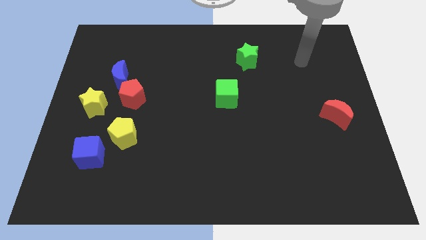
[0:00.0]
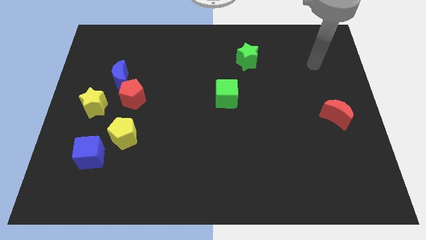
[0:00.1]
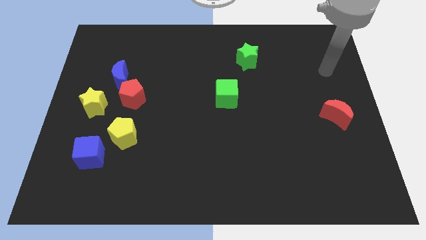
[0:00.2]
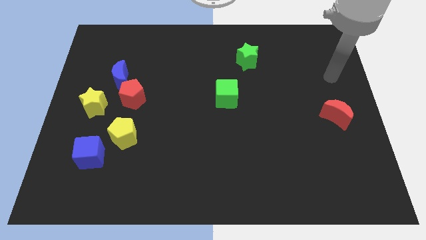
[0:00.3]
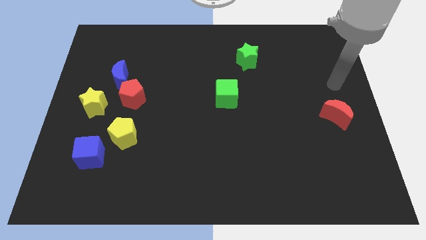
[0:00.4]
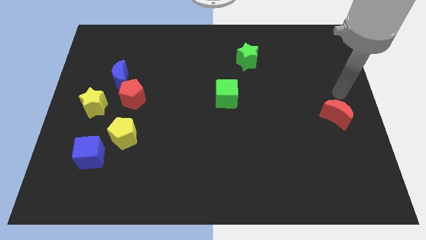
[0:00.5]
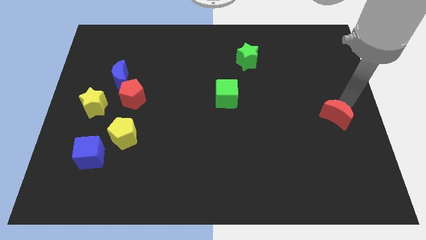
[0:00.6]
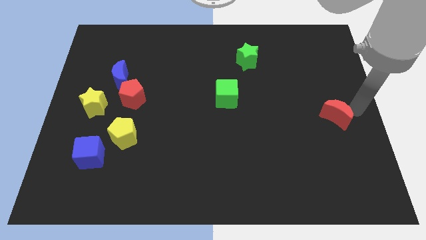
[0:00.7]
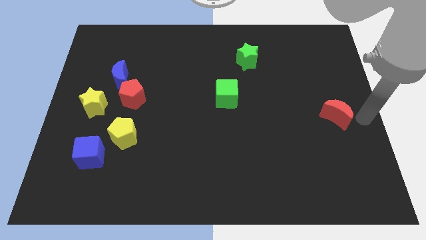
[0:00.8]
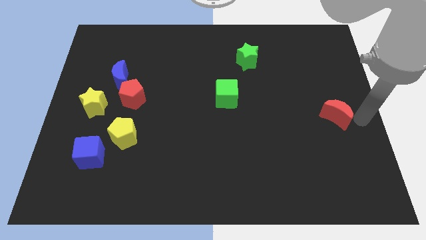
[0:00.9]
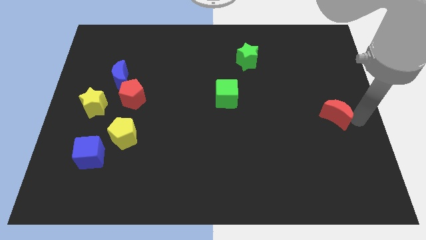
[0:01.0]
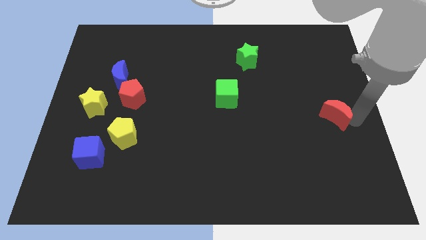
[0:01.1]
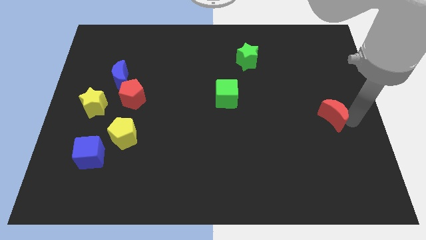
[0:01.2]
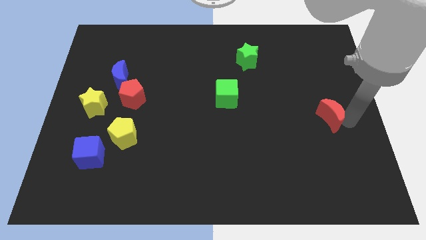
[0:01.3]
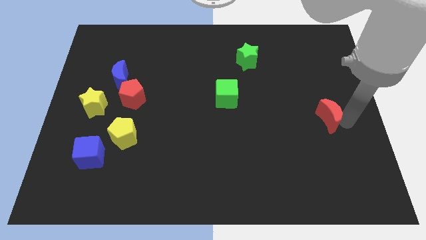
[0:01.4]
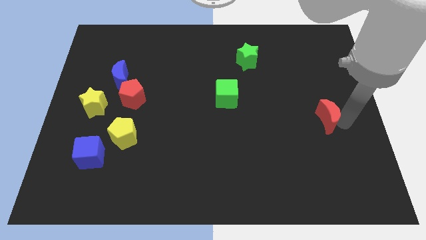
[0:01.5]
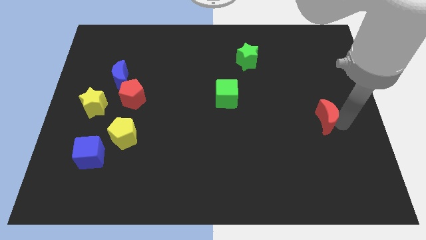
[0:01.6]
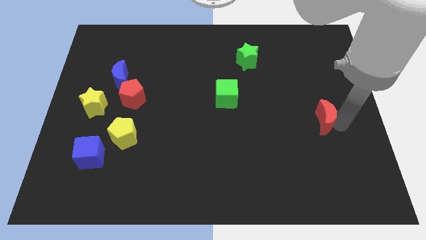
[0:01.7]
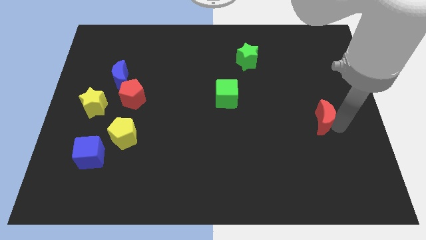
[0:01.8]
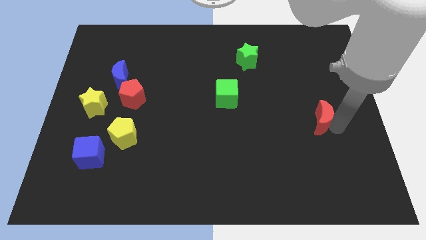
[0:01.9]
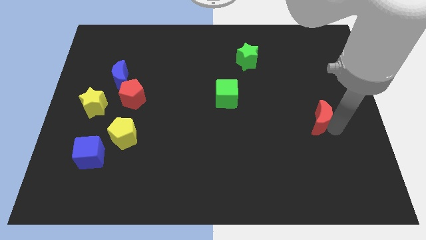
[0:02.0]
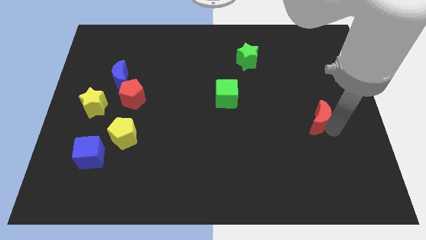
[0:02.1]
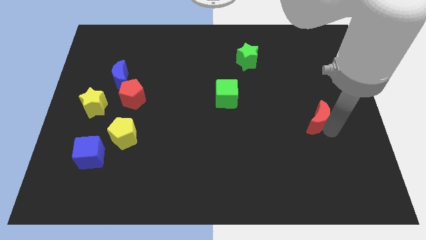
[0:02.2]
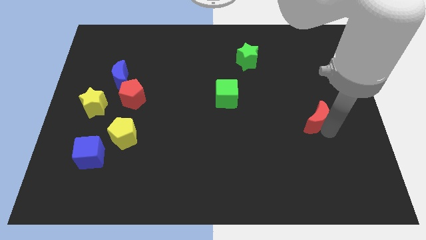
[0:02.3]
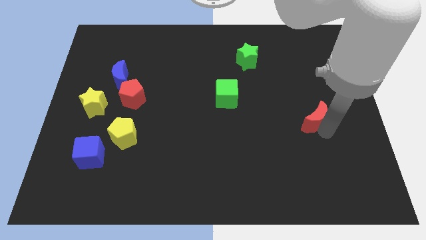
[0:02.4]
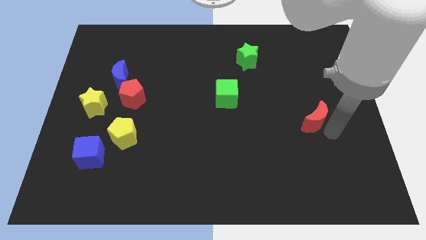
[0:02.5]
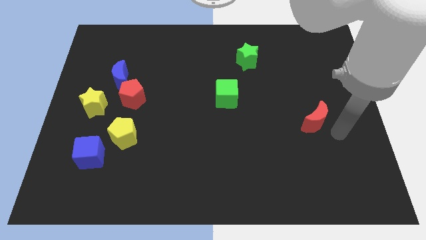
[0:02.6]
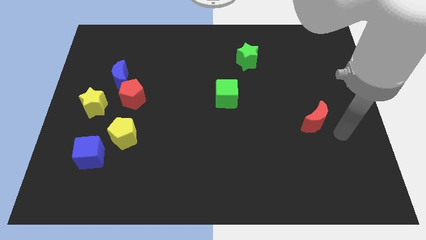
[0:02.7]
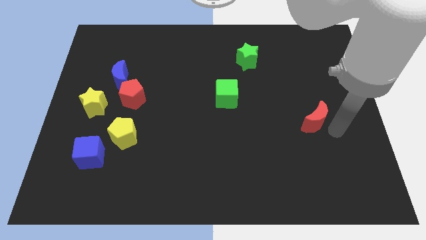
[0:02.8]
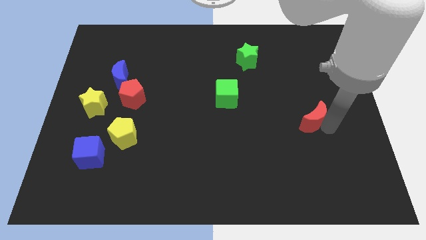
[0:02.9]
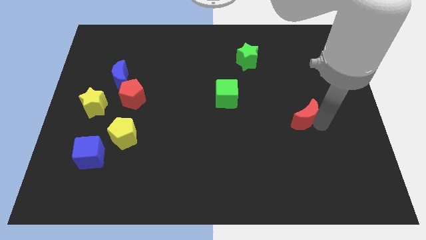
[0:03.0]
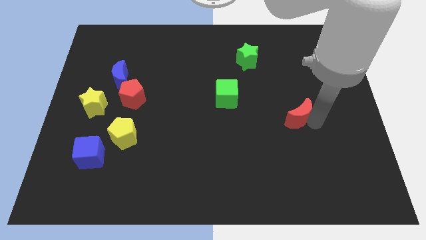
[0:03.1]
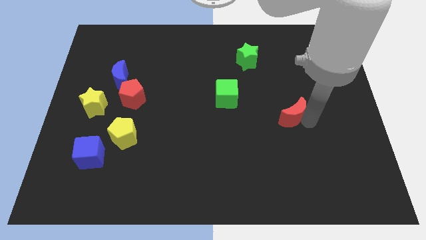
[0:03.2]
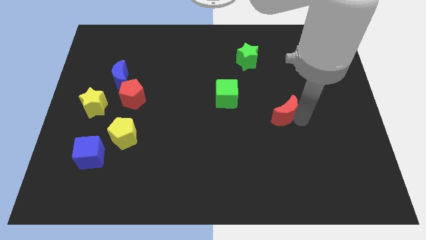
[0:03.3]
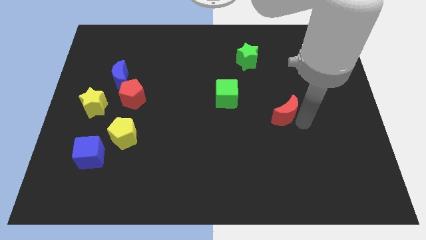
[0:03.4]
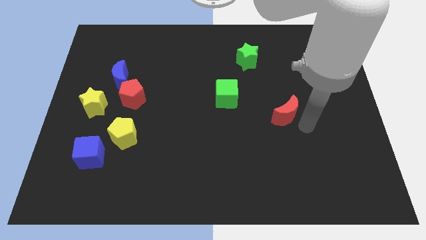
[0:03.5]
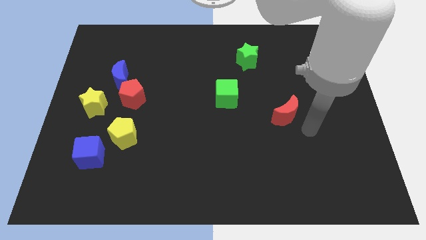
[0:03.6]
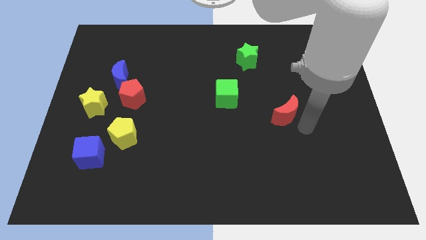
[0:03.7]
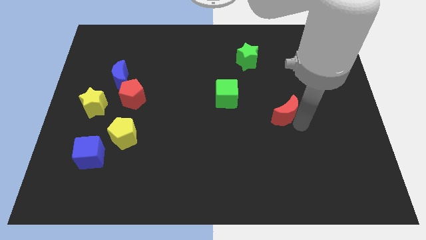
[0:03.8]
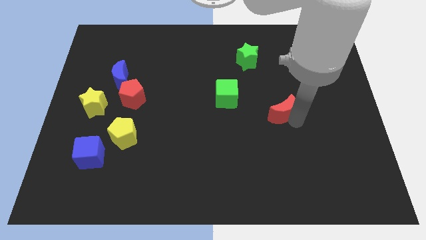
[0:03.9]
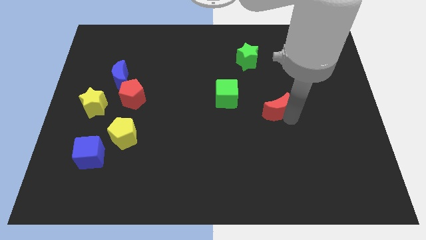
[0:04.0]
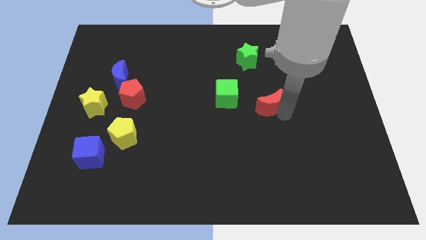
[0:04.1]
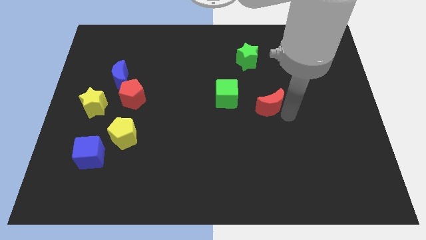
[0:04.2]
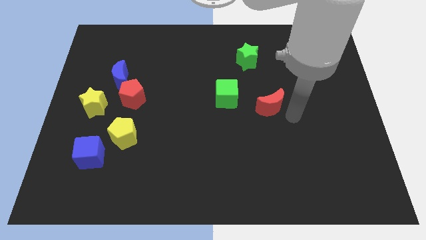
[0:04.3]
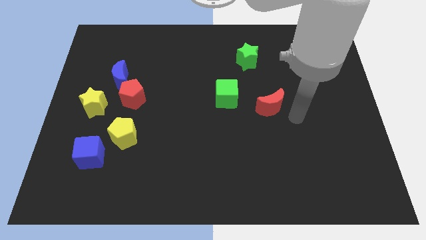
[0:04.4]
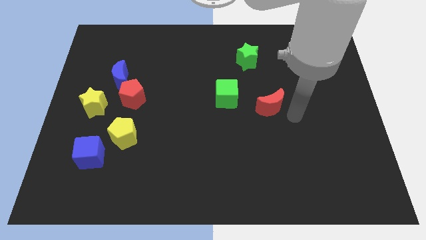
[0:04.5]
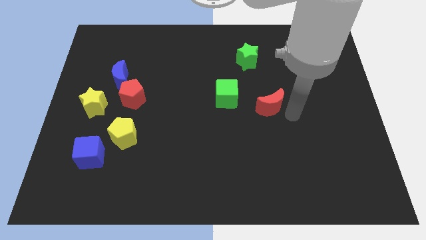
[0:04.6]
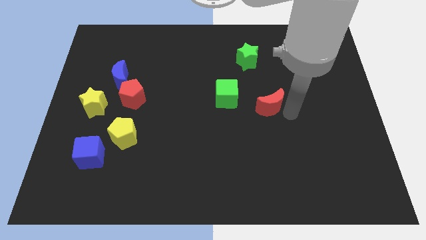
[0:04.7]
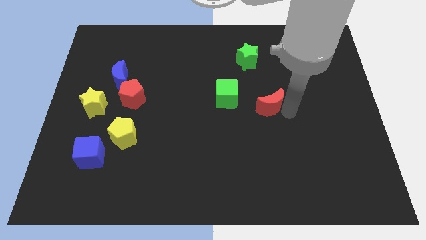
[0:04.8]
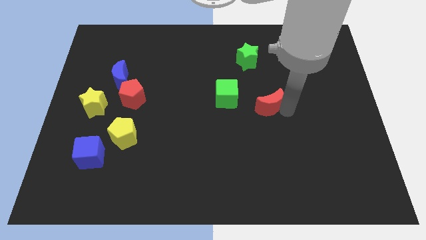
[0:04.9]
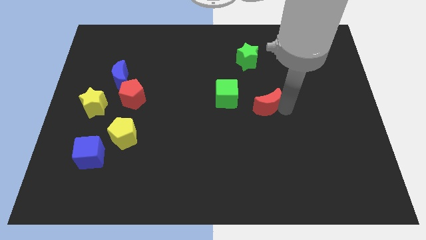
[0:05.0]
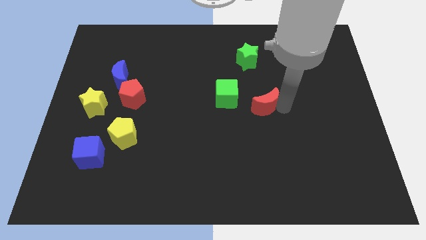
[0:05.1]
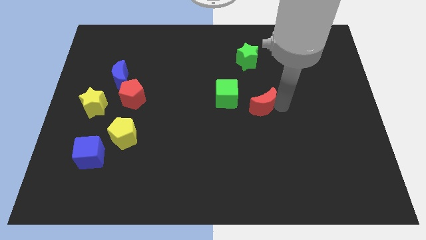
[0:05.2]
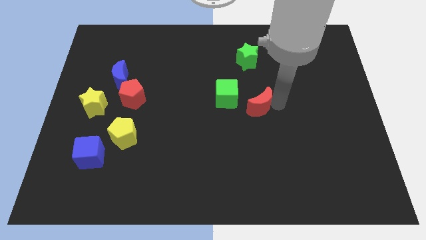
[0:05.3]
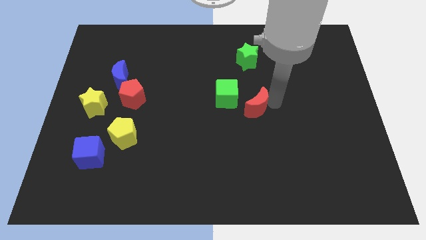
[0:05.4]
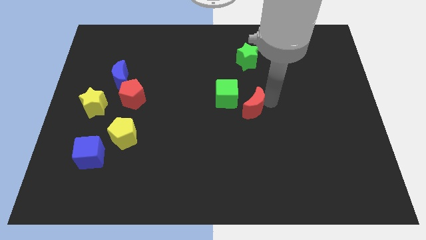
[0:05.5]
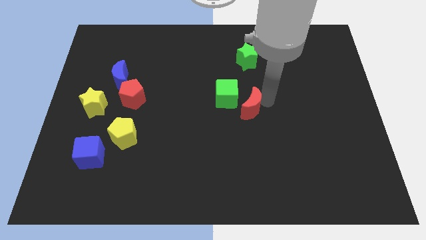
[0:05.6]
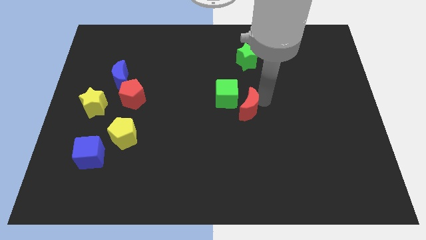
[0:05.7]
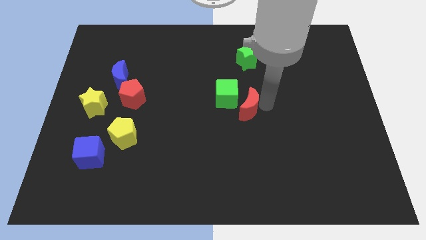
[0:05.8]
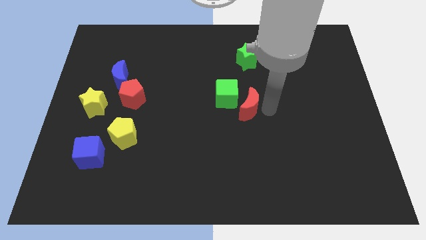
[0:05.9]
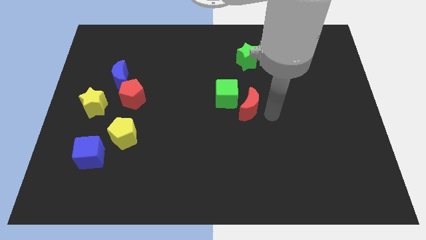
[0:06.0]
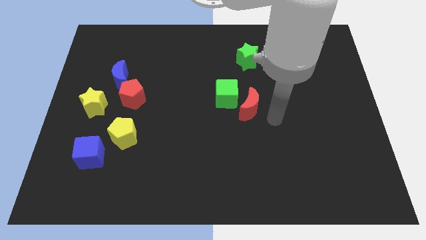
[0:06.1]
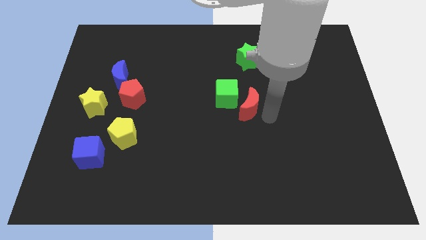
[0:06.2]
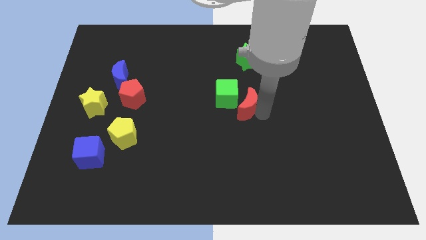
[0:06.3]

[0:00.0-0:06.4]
slide the red moon towards the green cube

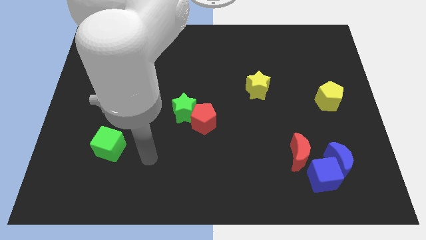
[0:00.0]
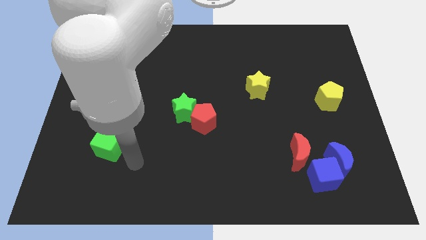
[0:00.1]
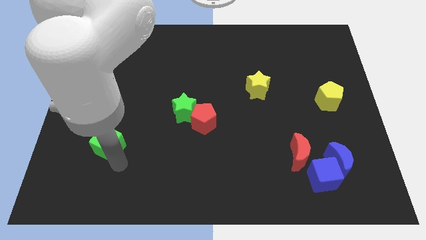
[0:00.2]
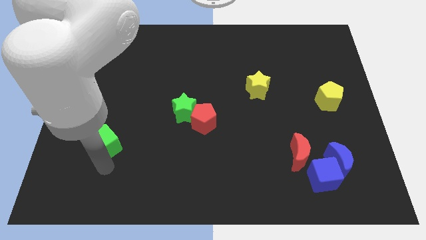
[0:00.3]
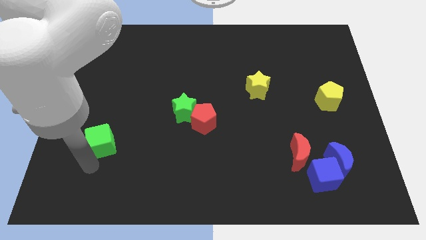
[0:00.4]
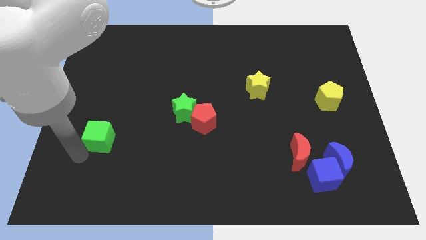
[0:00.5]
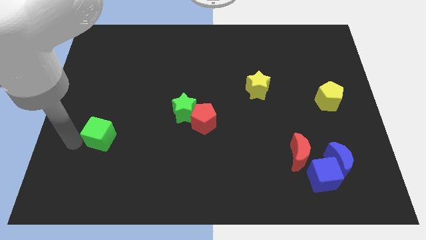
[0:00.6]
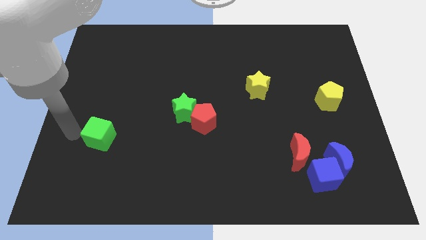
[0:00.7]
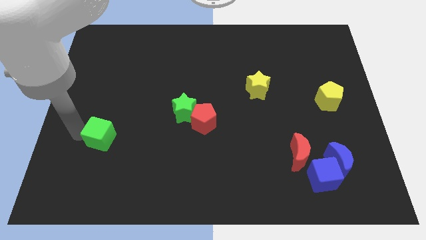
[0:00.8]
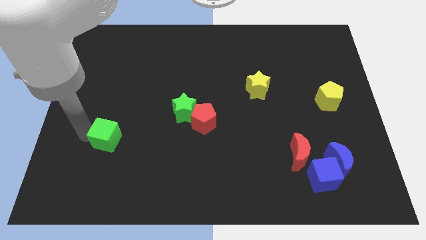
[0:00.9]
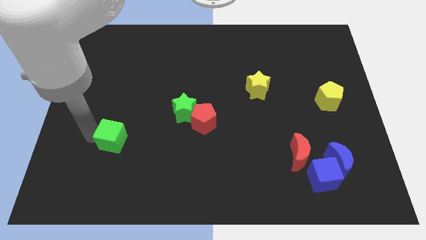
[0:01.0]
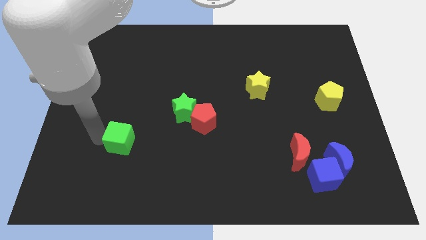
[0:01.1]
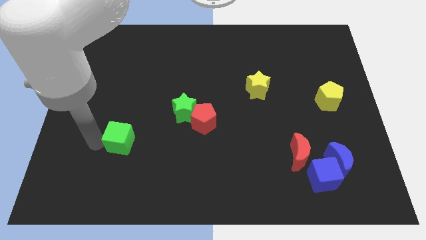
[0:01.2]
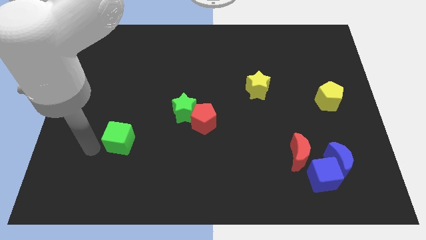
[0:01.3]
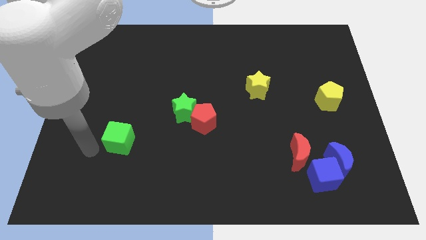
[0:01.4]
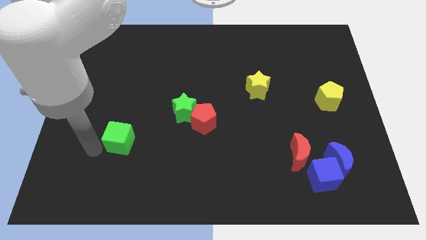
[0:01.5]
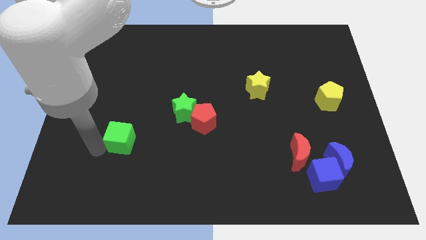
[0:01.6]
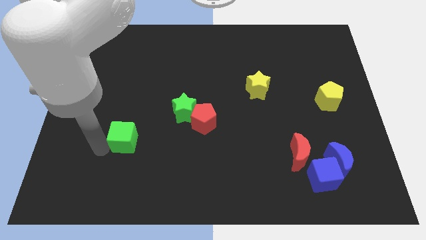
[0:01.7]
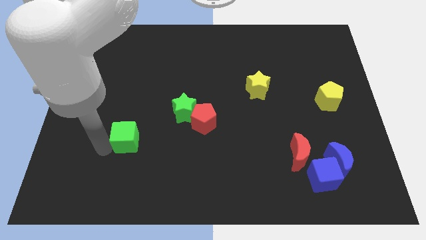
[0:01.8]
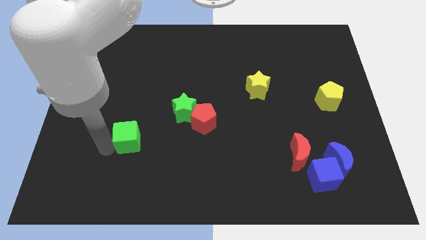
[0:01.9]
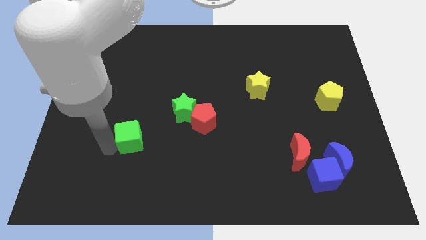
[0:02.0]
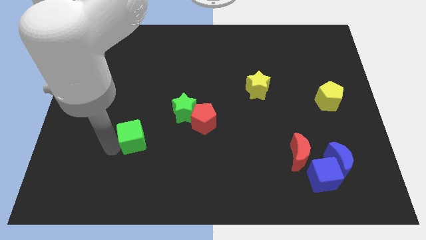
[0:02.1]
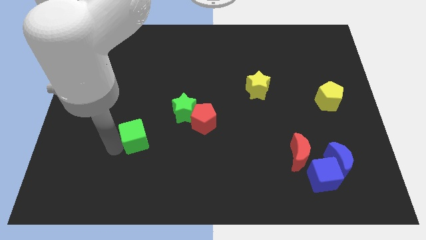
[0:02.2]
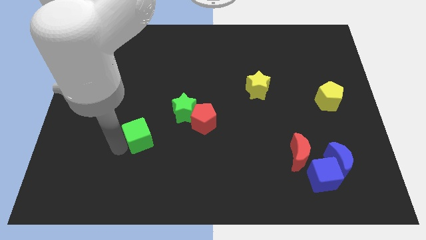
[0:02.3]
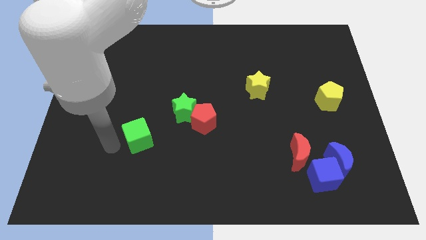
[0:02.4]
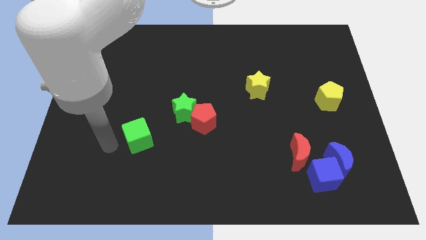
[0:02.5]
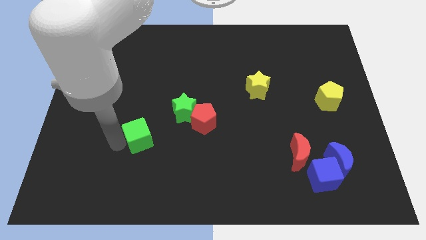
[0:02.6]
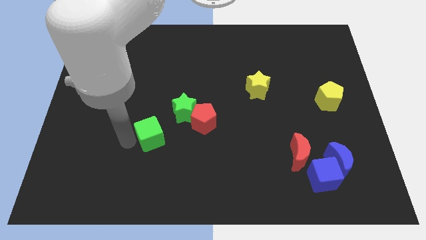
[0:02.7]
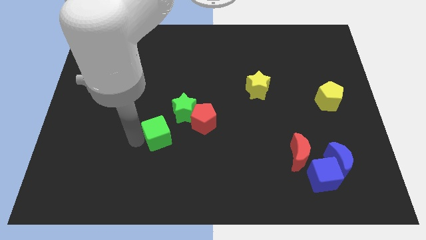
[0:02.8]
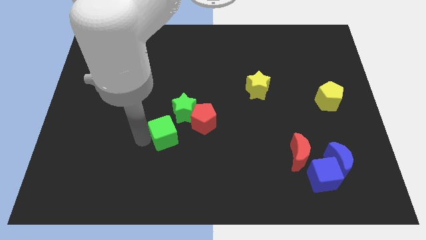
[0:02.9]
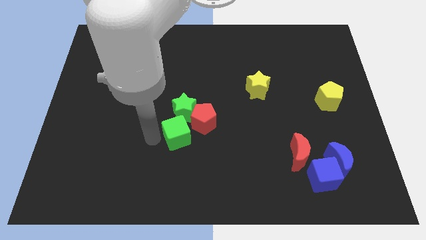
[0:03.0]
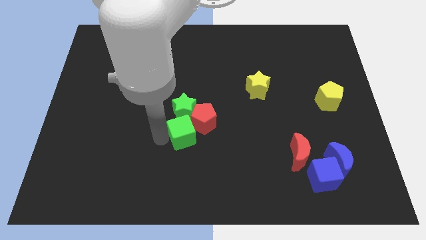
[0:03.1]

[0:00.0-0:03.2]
push the green cube next to the red pentagon
